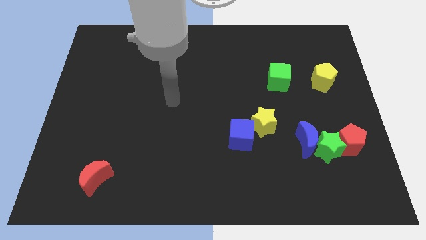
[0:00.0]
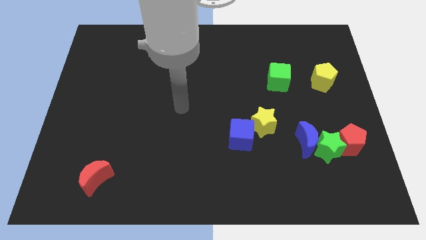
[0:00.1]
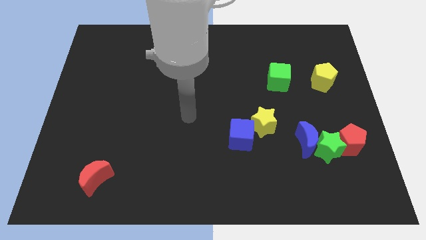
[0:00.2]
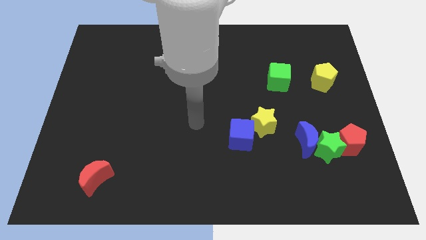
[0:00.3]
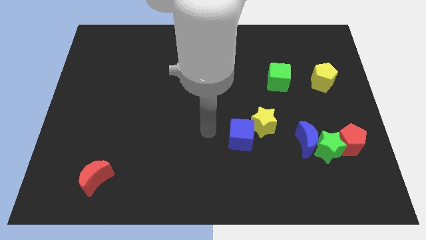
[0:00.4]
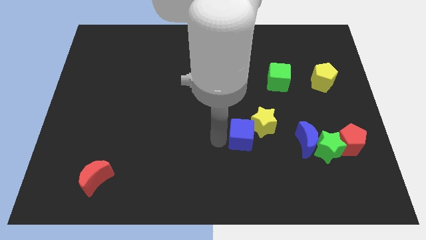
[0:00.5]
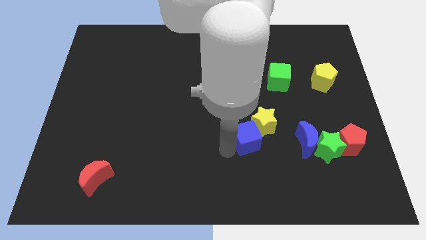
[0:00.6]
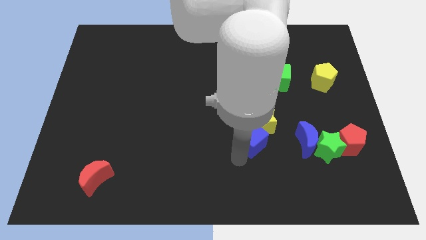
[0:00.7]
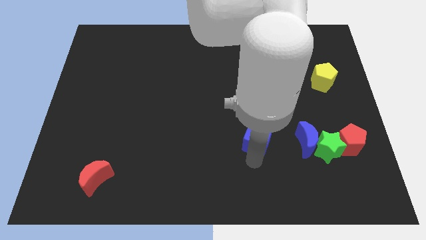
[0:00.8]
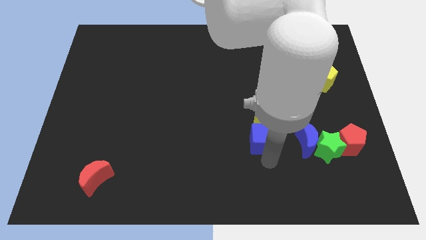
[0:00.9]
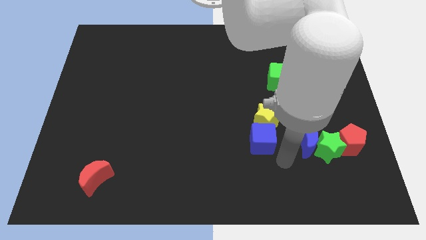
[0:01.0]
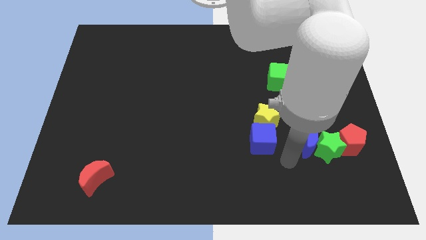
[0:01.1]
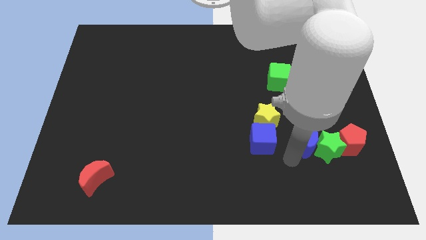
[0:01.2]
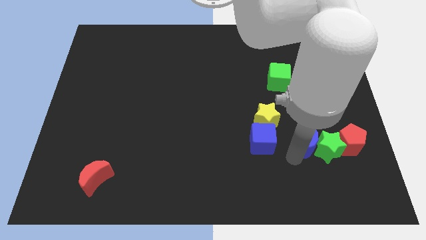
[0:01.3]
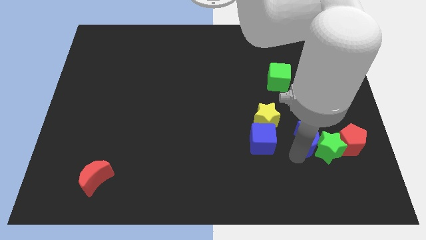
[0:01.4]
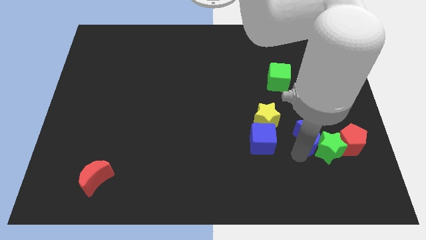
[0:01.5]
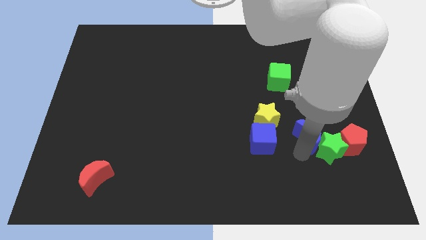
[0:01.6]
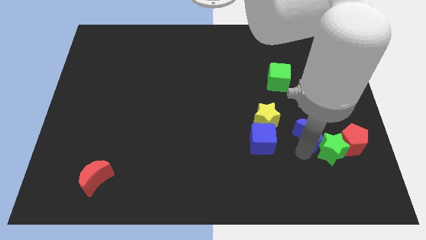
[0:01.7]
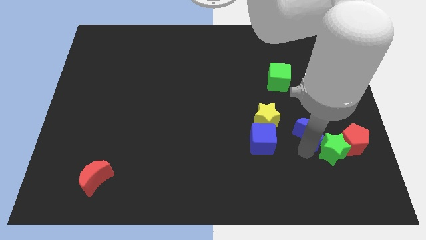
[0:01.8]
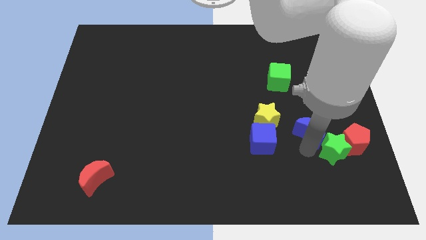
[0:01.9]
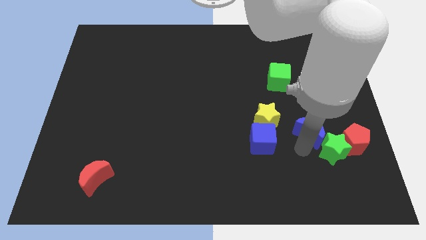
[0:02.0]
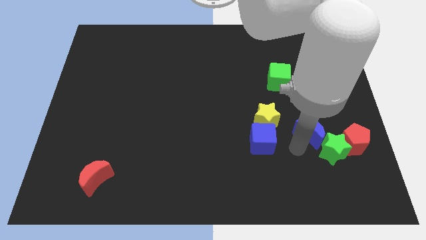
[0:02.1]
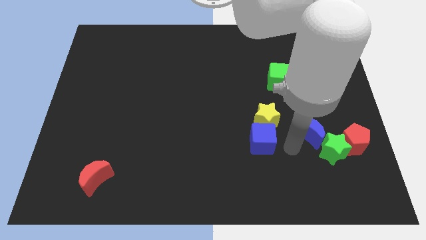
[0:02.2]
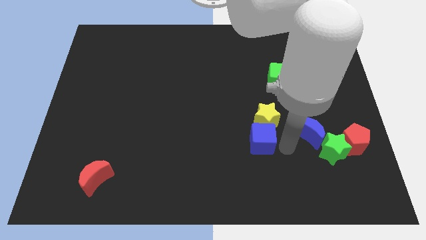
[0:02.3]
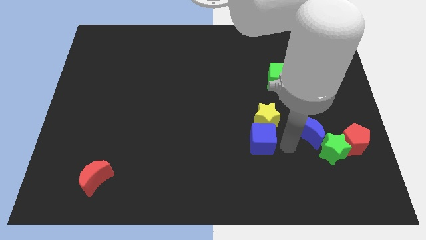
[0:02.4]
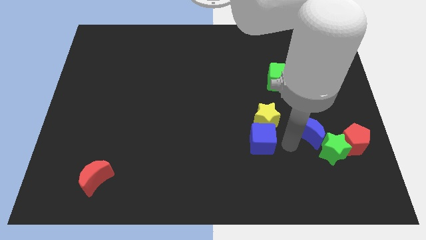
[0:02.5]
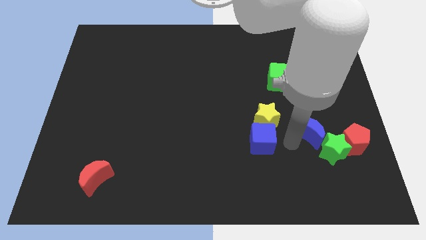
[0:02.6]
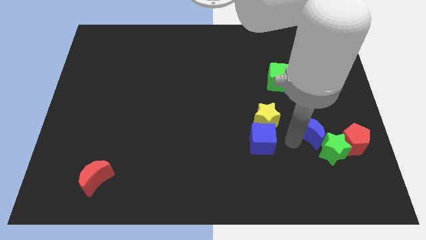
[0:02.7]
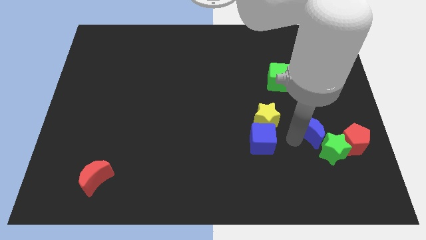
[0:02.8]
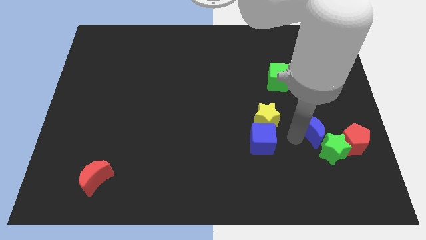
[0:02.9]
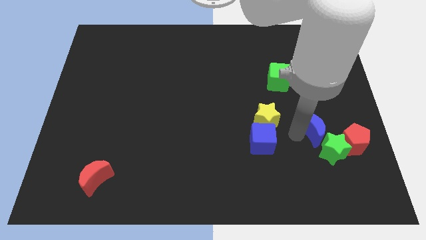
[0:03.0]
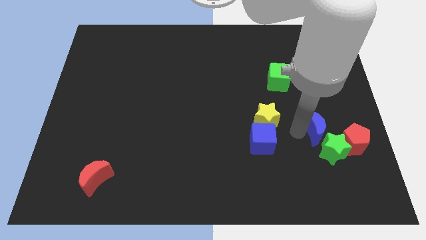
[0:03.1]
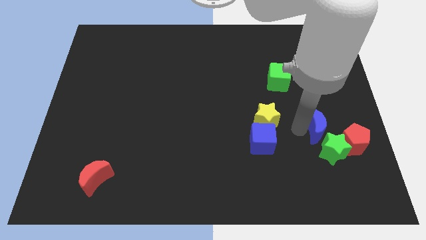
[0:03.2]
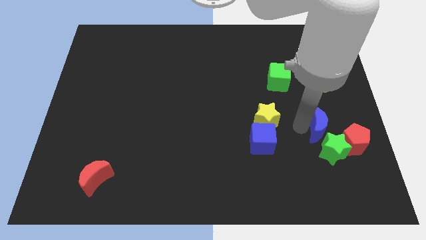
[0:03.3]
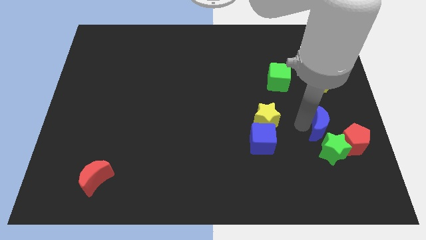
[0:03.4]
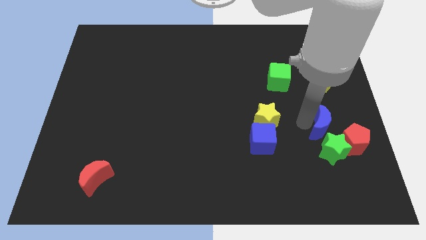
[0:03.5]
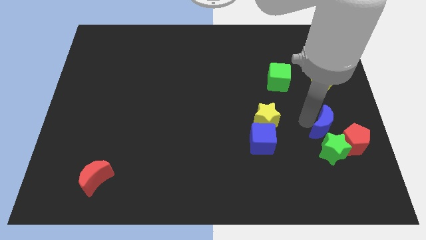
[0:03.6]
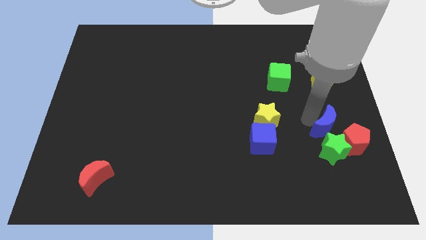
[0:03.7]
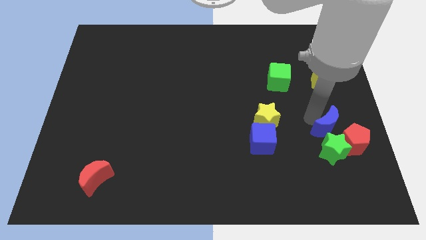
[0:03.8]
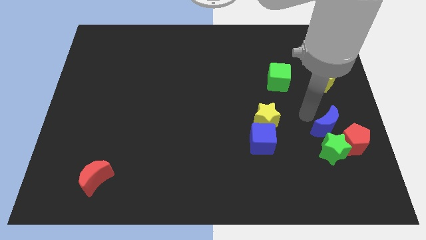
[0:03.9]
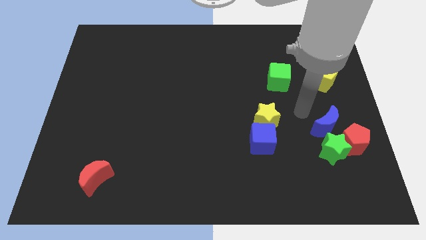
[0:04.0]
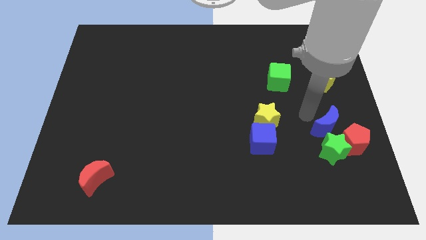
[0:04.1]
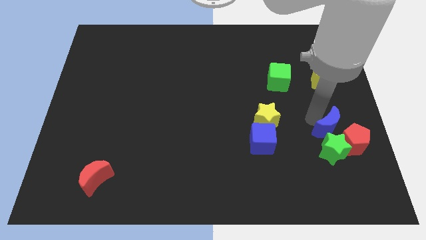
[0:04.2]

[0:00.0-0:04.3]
put the blue moon to the red pentagon

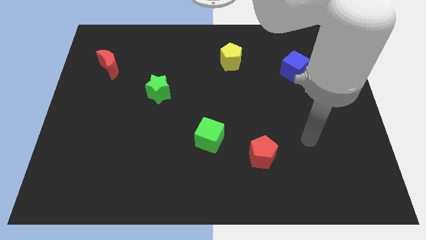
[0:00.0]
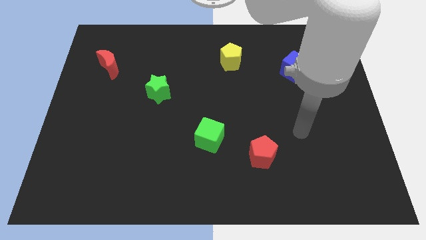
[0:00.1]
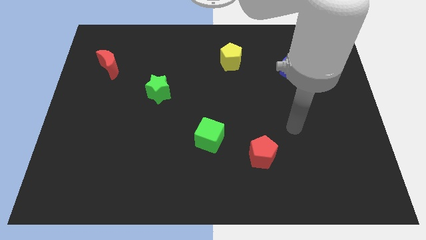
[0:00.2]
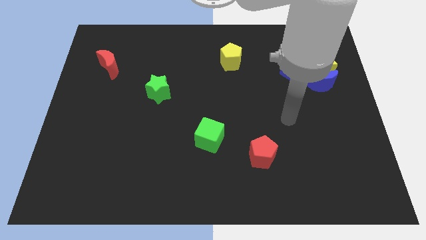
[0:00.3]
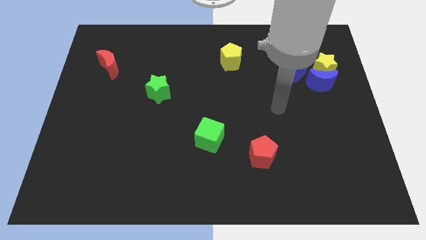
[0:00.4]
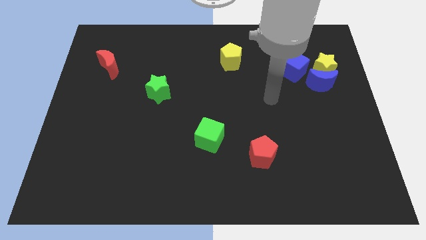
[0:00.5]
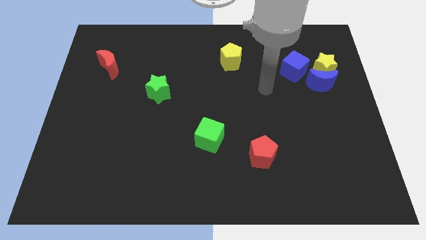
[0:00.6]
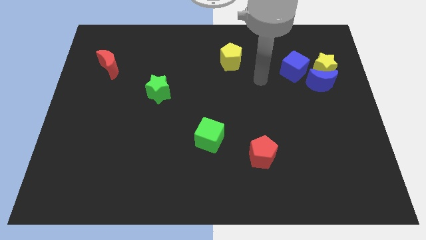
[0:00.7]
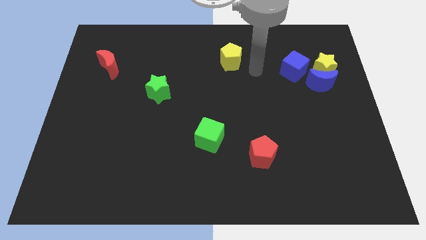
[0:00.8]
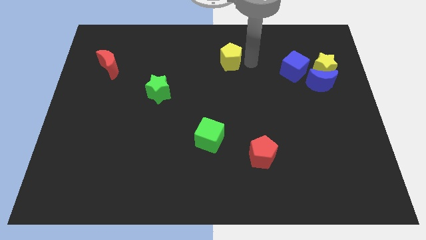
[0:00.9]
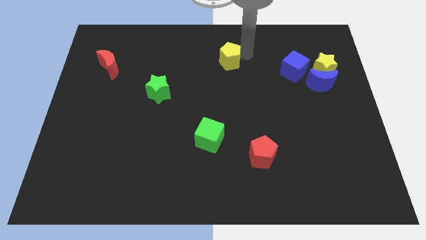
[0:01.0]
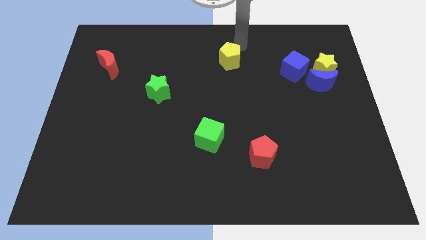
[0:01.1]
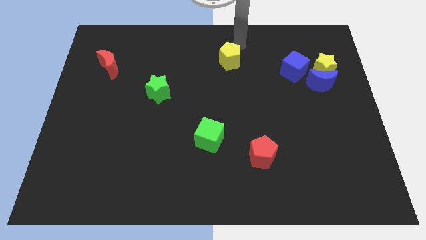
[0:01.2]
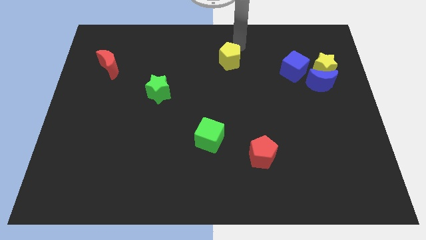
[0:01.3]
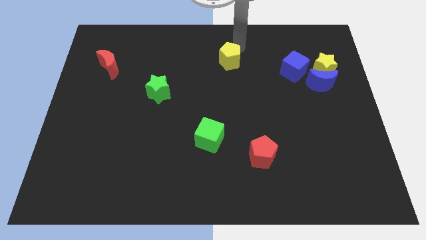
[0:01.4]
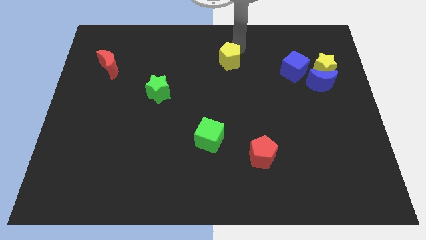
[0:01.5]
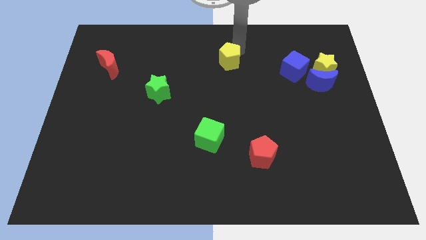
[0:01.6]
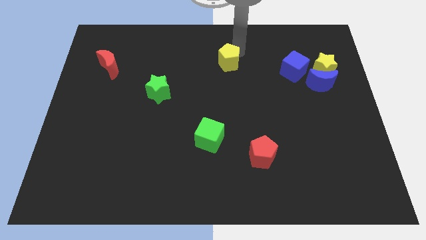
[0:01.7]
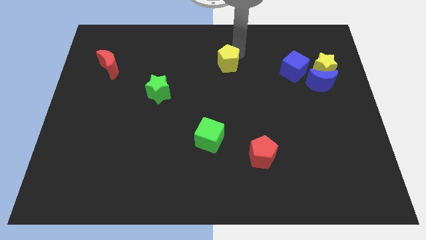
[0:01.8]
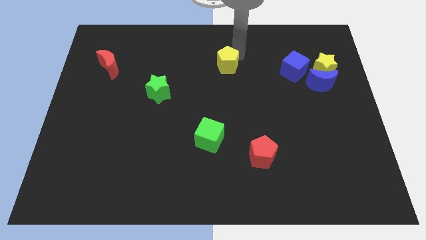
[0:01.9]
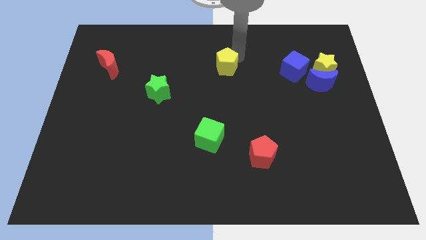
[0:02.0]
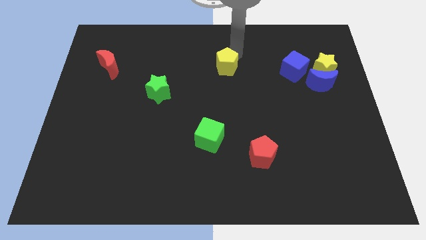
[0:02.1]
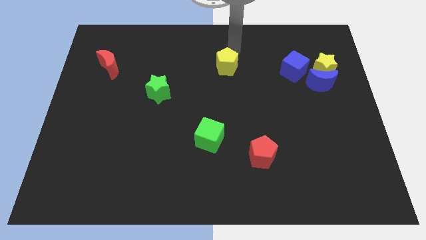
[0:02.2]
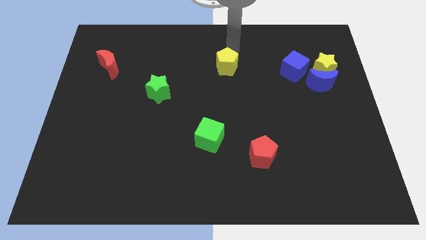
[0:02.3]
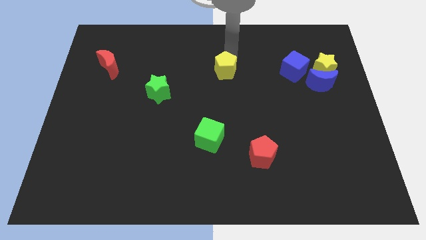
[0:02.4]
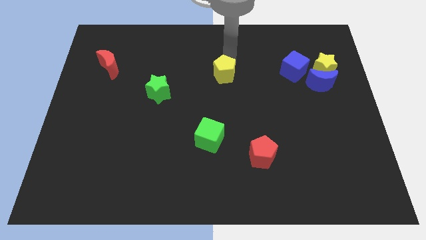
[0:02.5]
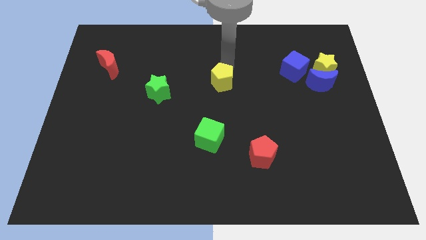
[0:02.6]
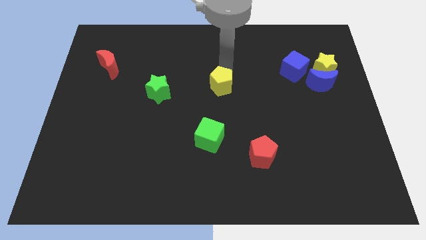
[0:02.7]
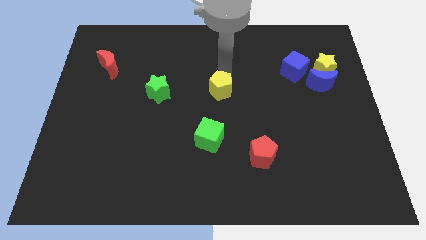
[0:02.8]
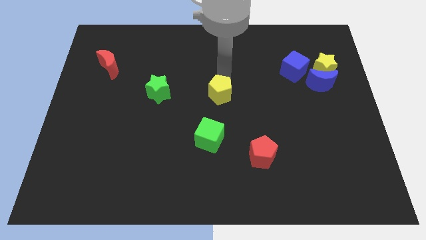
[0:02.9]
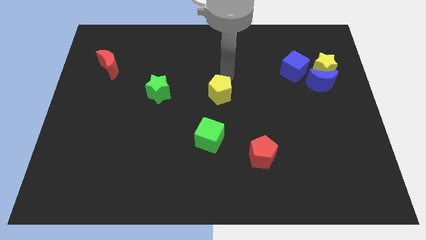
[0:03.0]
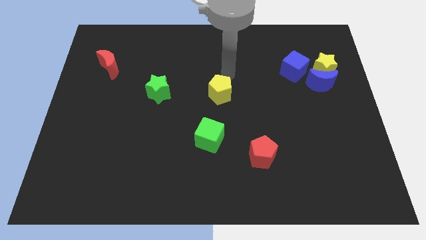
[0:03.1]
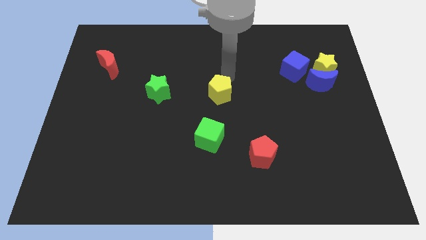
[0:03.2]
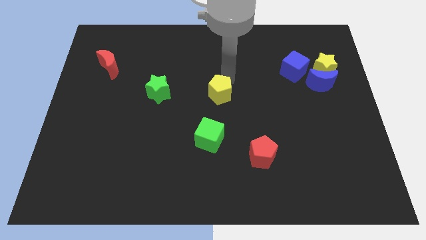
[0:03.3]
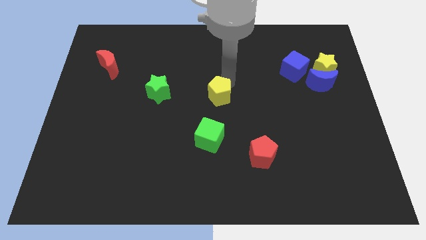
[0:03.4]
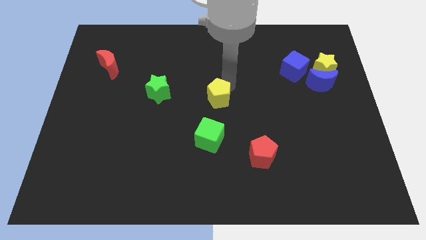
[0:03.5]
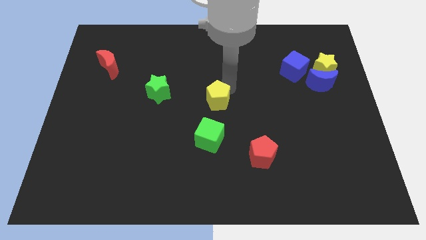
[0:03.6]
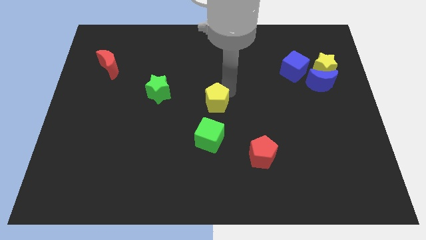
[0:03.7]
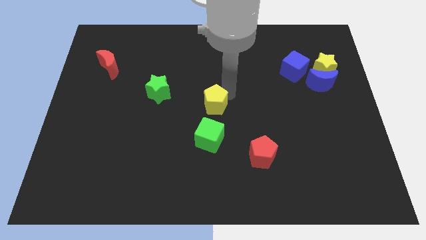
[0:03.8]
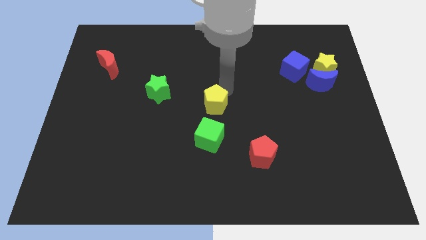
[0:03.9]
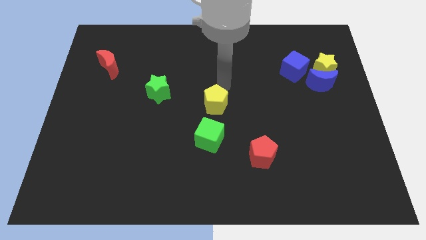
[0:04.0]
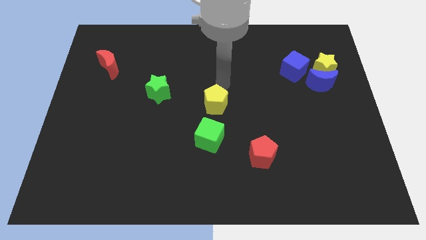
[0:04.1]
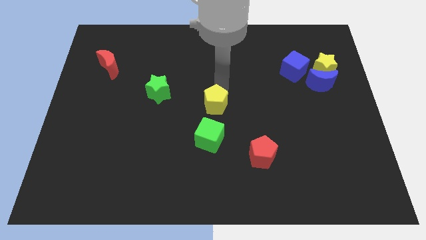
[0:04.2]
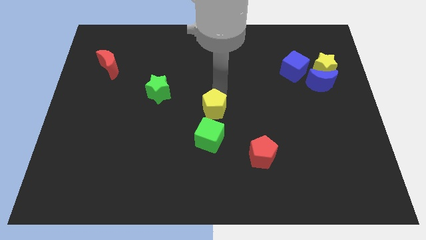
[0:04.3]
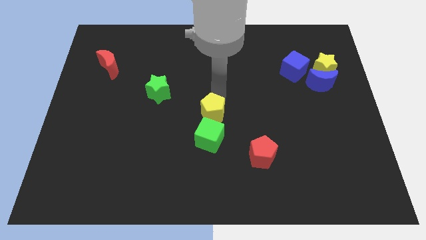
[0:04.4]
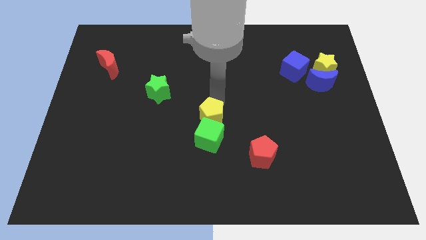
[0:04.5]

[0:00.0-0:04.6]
move the yellow pentagon close to the green cube
